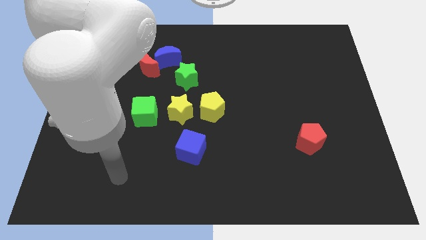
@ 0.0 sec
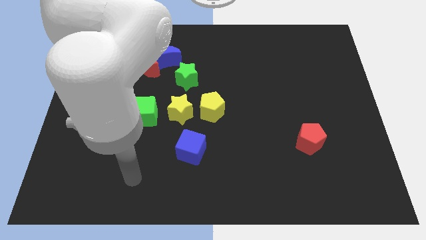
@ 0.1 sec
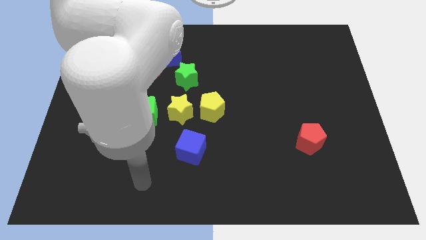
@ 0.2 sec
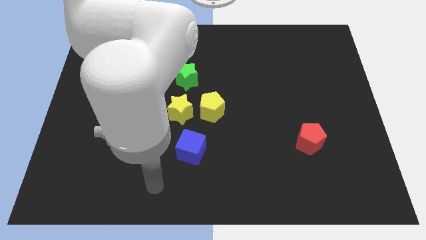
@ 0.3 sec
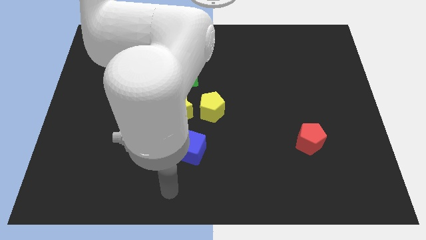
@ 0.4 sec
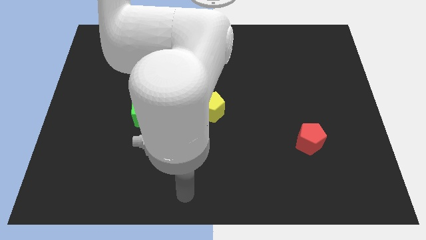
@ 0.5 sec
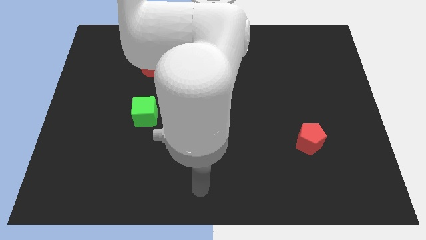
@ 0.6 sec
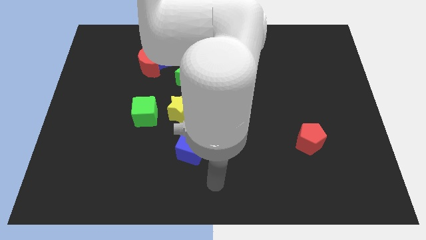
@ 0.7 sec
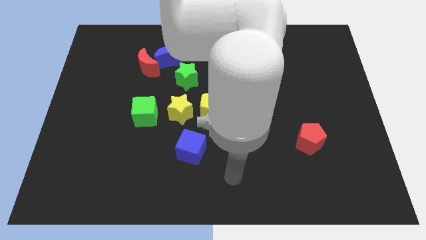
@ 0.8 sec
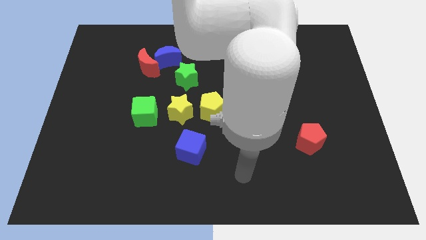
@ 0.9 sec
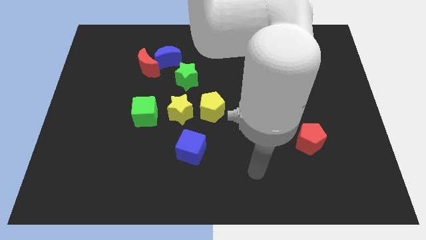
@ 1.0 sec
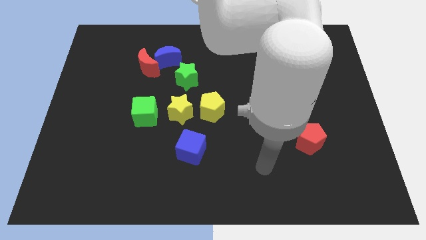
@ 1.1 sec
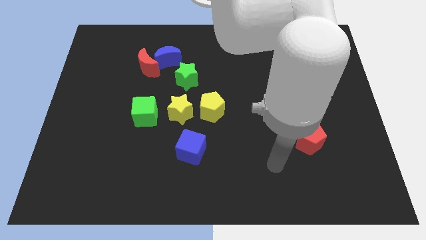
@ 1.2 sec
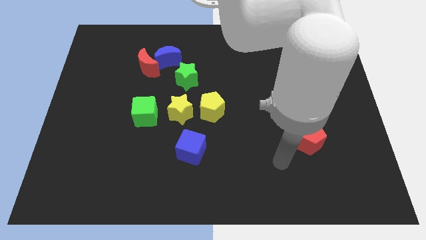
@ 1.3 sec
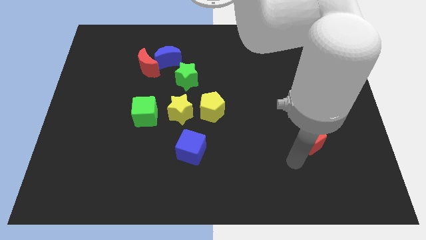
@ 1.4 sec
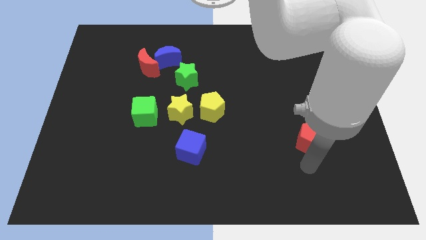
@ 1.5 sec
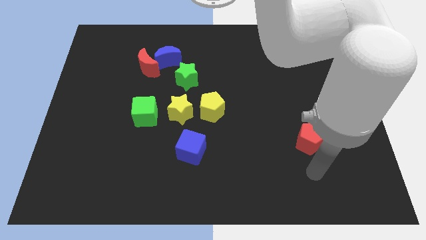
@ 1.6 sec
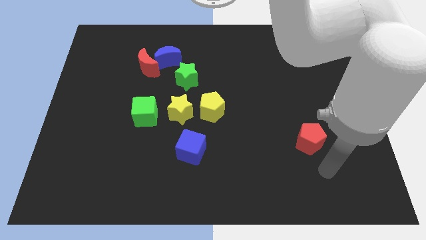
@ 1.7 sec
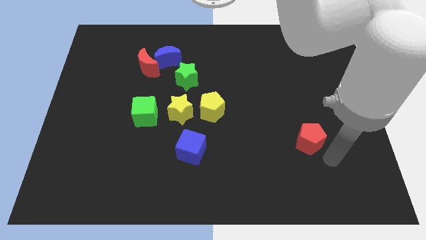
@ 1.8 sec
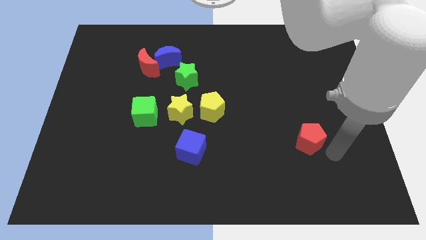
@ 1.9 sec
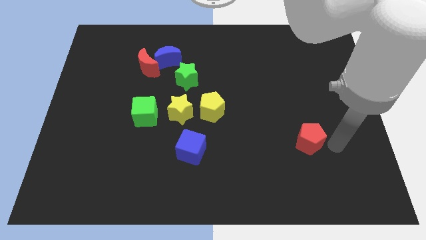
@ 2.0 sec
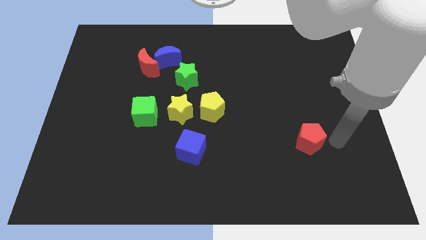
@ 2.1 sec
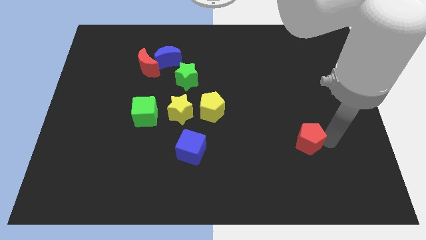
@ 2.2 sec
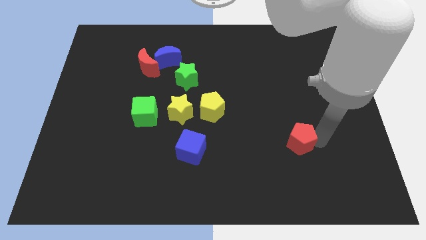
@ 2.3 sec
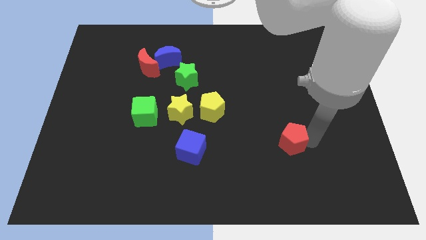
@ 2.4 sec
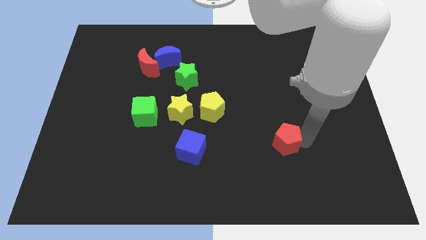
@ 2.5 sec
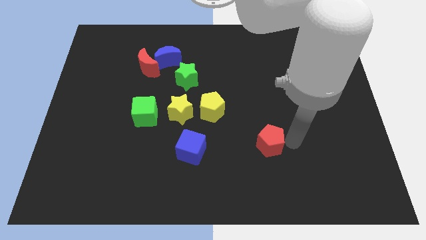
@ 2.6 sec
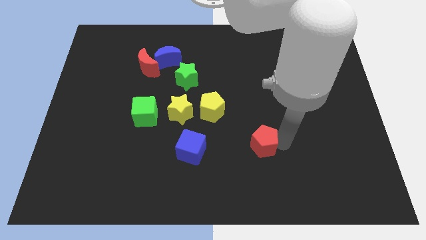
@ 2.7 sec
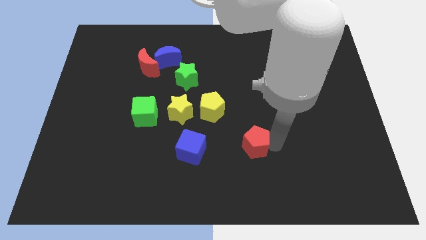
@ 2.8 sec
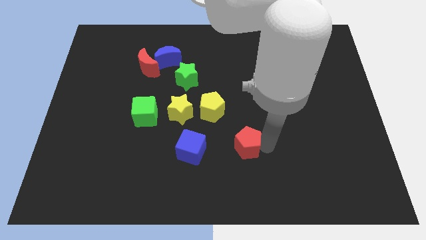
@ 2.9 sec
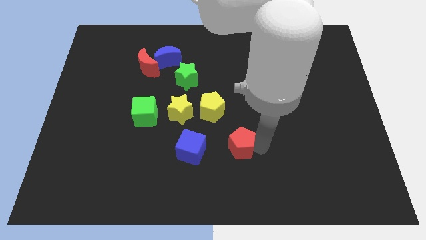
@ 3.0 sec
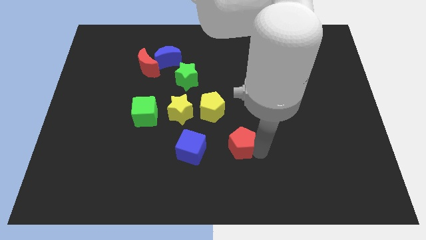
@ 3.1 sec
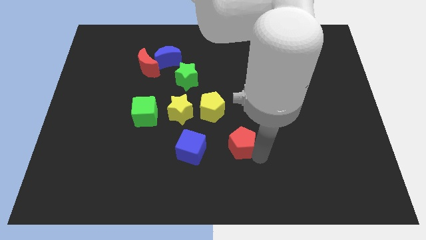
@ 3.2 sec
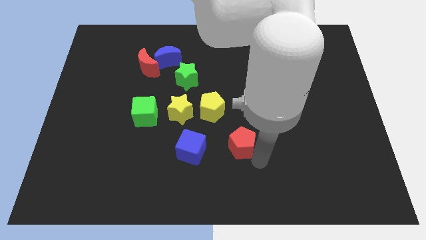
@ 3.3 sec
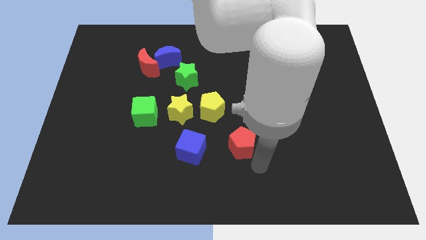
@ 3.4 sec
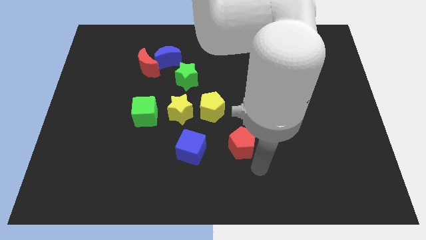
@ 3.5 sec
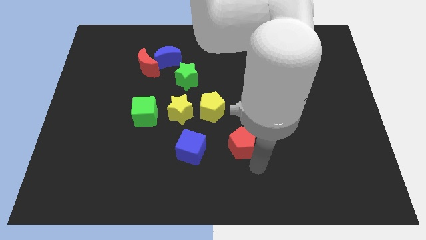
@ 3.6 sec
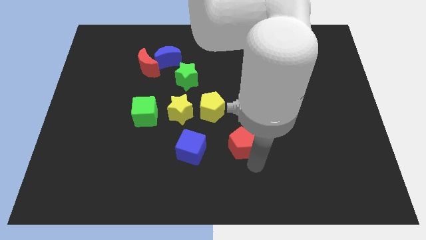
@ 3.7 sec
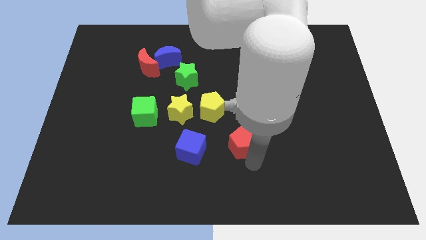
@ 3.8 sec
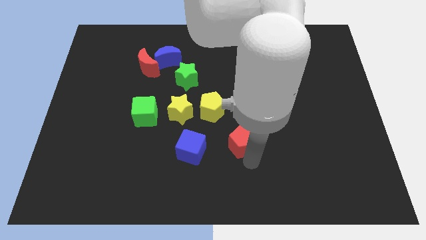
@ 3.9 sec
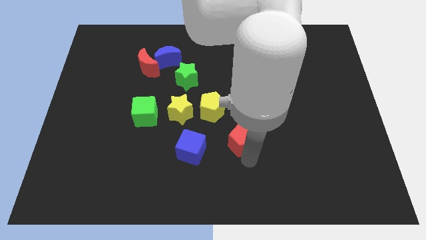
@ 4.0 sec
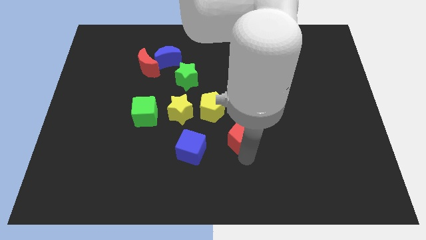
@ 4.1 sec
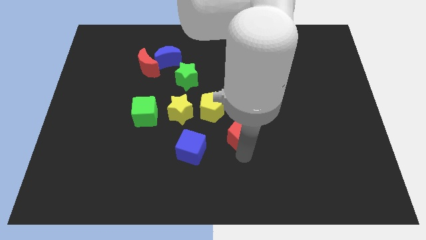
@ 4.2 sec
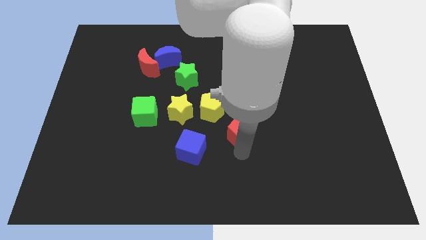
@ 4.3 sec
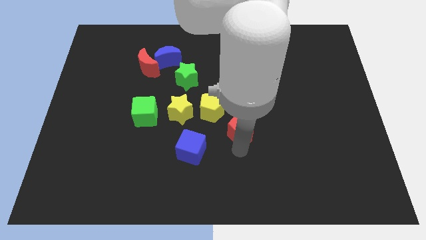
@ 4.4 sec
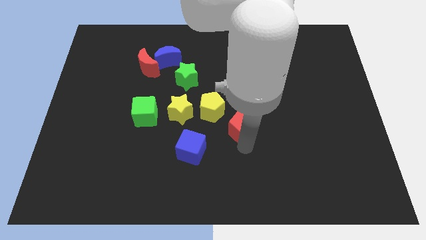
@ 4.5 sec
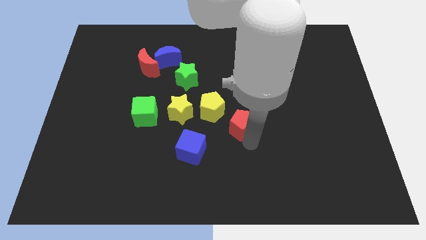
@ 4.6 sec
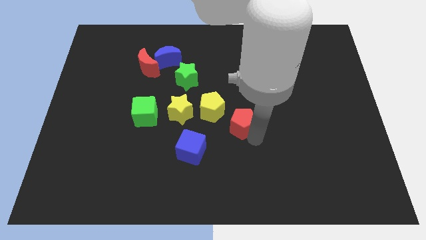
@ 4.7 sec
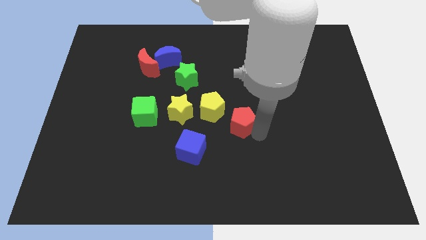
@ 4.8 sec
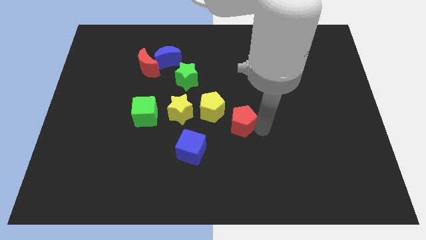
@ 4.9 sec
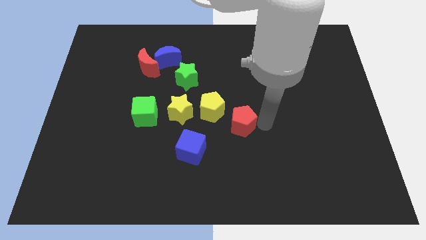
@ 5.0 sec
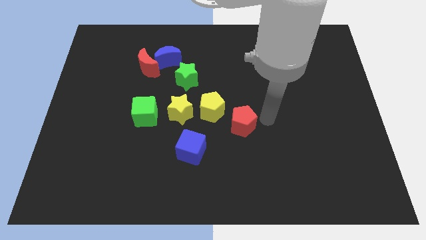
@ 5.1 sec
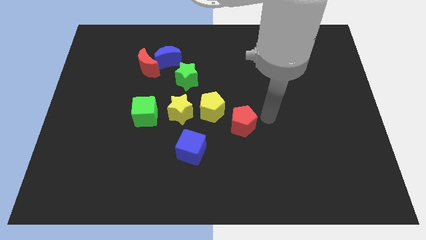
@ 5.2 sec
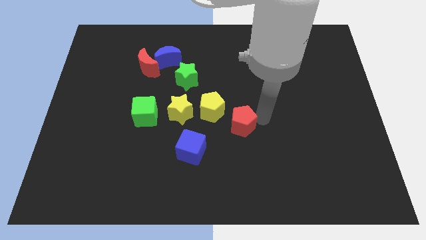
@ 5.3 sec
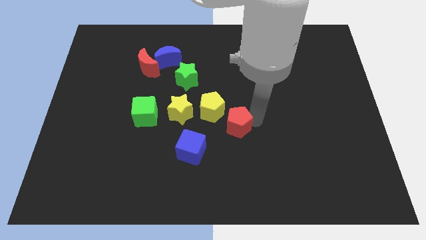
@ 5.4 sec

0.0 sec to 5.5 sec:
push the red pentagon to the top right of the blue cube

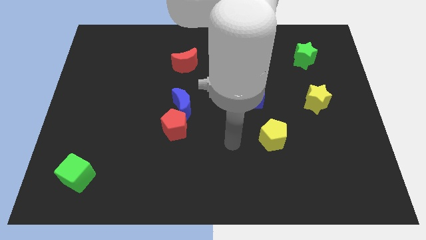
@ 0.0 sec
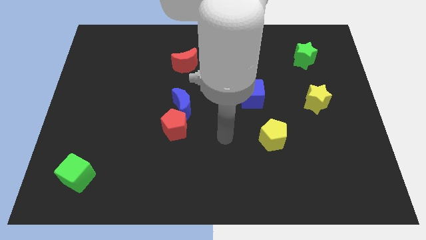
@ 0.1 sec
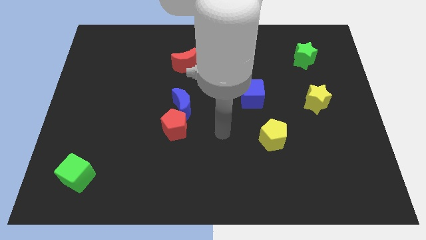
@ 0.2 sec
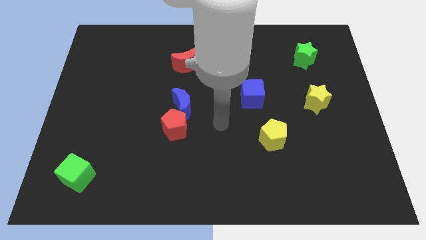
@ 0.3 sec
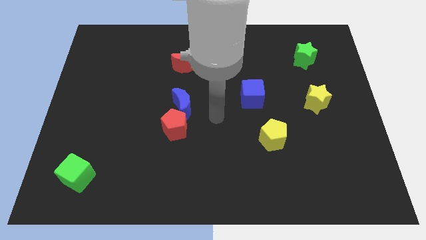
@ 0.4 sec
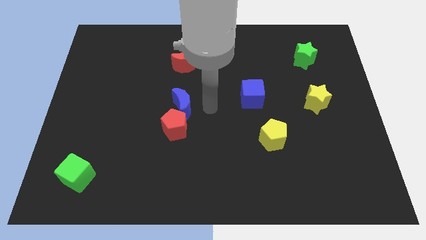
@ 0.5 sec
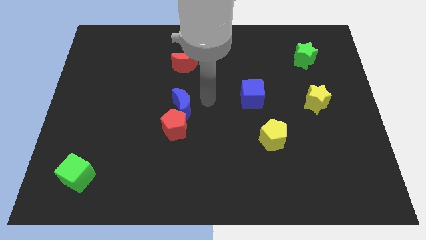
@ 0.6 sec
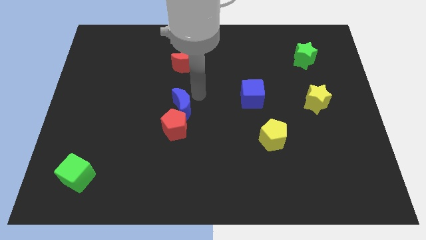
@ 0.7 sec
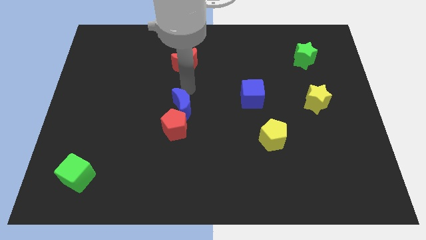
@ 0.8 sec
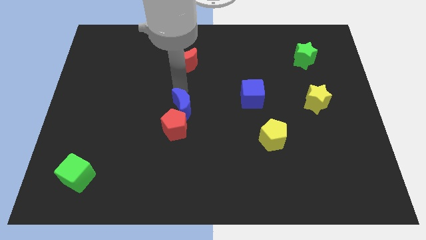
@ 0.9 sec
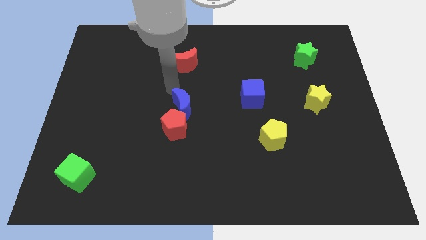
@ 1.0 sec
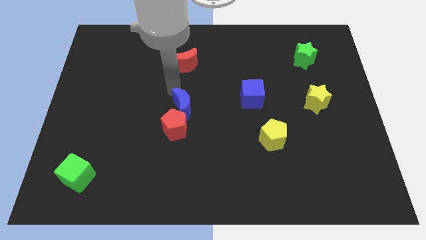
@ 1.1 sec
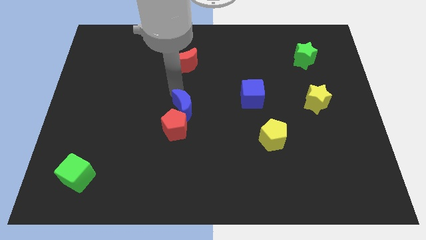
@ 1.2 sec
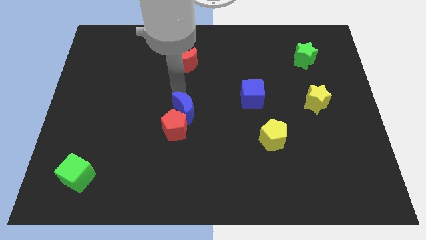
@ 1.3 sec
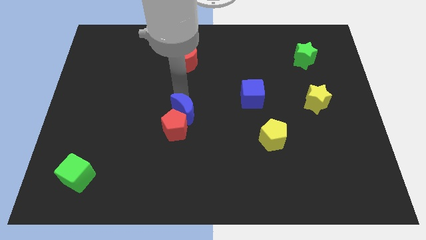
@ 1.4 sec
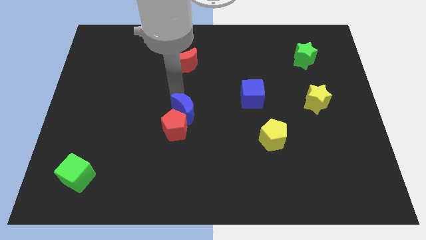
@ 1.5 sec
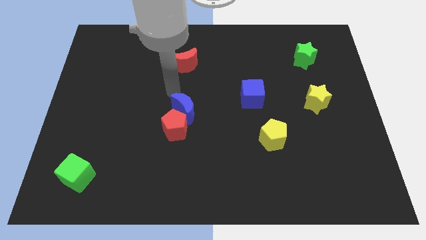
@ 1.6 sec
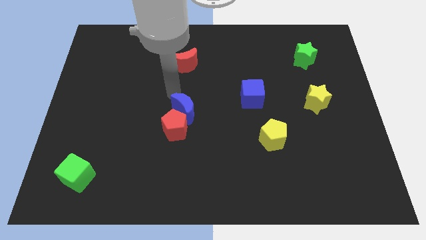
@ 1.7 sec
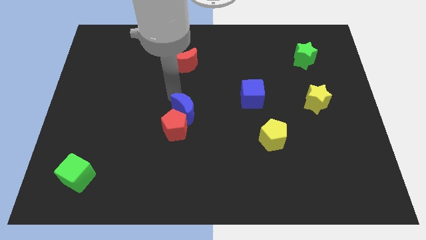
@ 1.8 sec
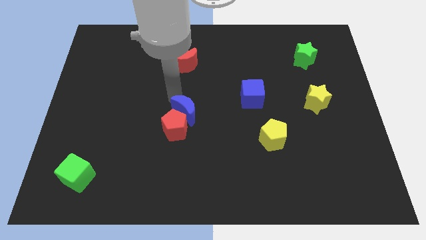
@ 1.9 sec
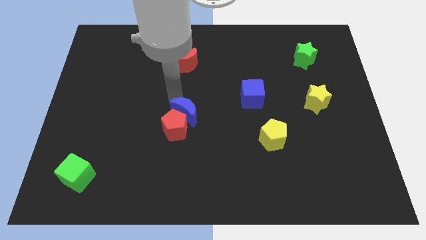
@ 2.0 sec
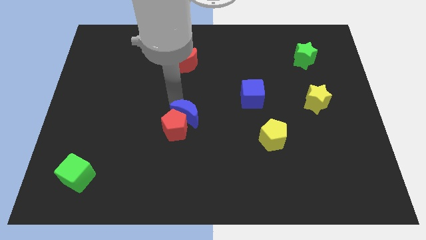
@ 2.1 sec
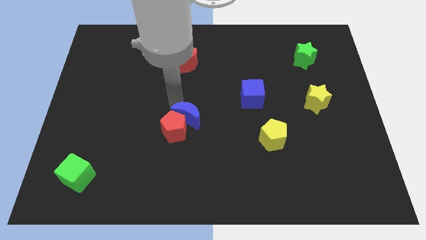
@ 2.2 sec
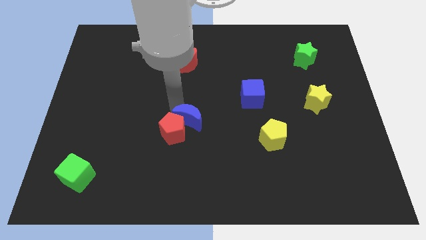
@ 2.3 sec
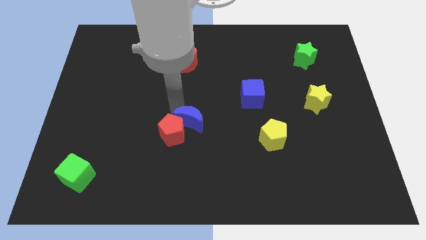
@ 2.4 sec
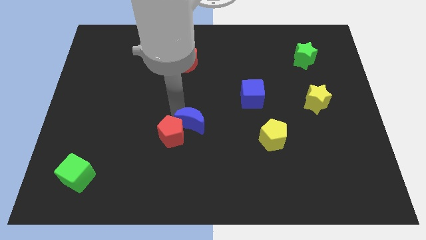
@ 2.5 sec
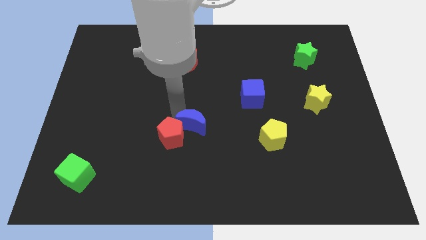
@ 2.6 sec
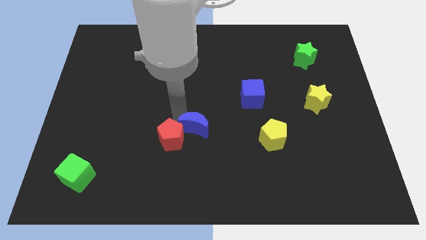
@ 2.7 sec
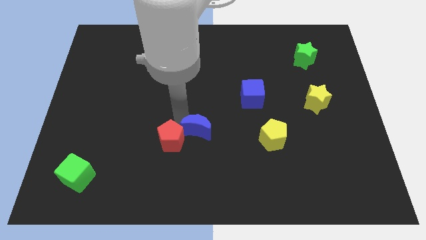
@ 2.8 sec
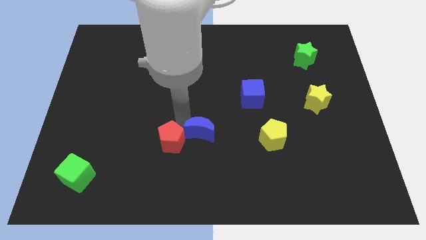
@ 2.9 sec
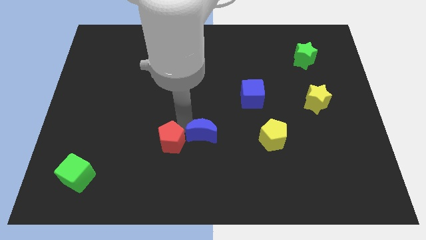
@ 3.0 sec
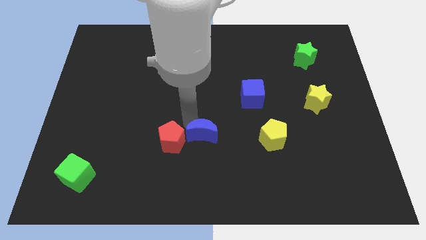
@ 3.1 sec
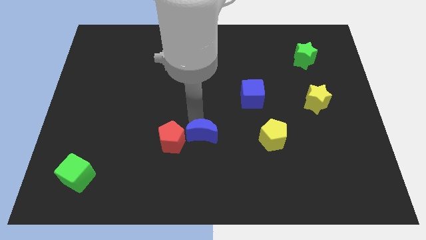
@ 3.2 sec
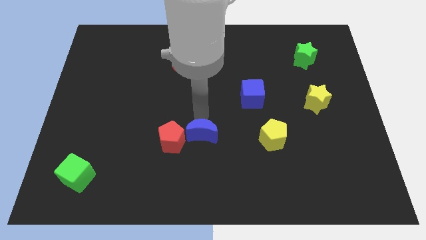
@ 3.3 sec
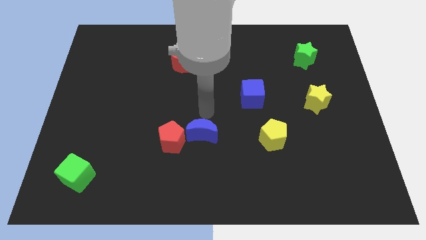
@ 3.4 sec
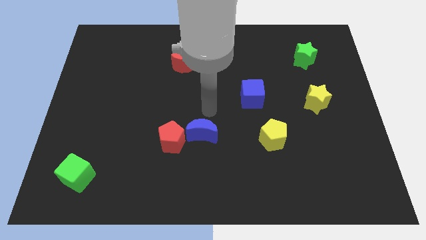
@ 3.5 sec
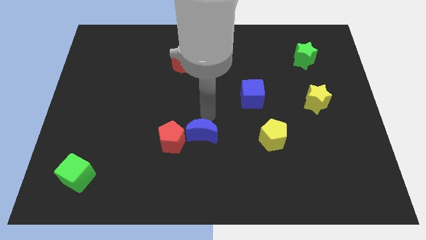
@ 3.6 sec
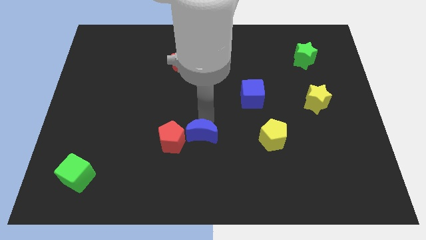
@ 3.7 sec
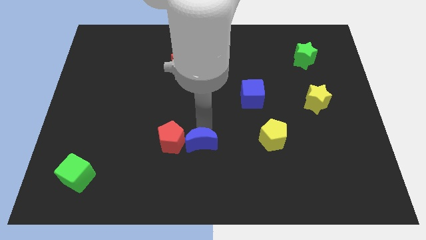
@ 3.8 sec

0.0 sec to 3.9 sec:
push the blue moon diagonally down and to the right of the red pentagon
